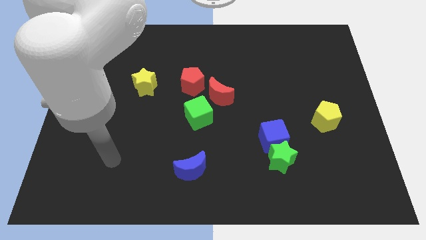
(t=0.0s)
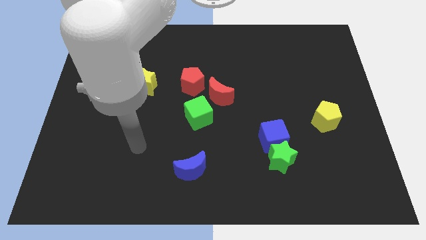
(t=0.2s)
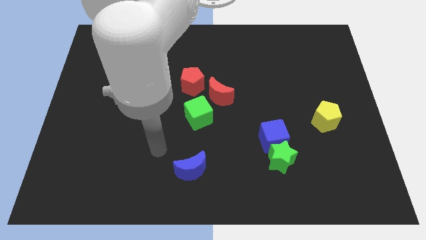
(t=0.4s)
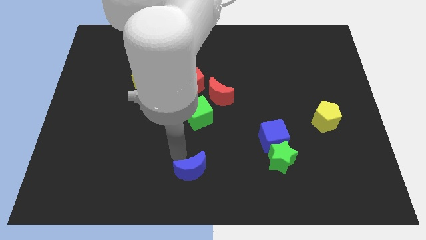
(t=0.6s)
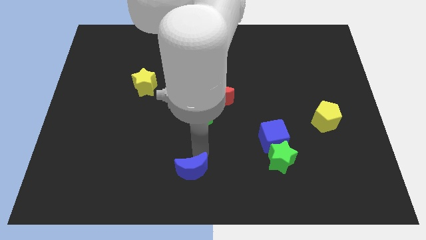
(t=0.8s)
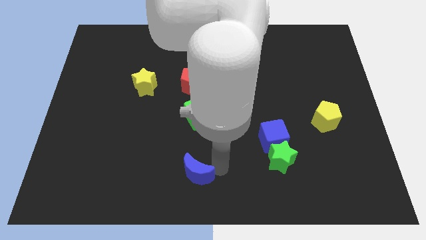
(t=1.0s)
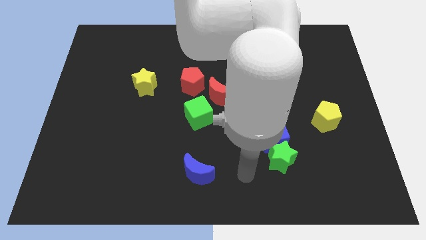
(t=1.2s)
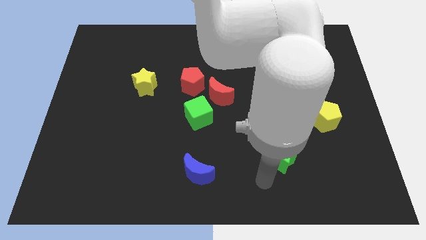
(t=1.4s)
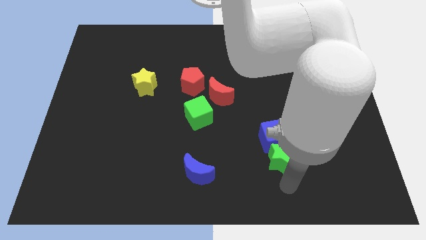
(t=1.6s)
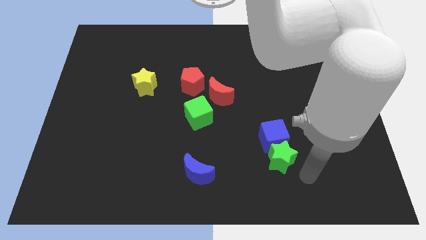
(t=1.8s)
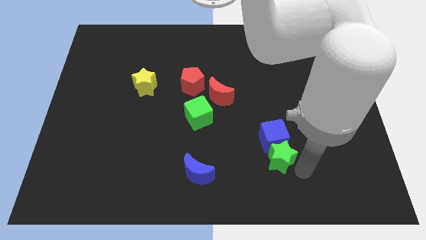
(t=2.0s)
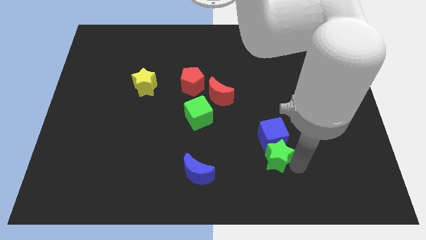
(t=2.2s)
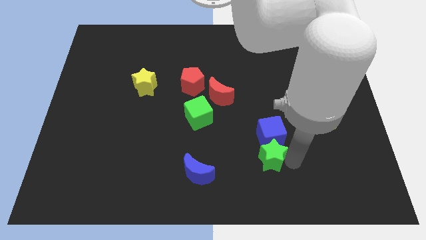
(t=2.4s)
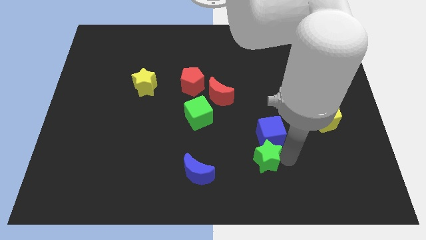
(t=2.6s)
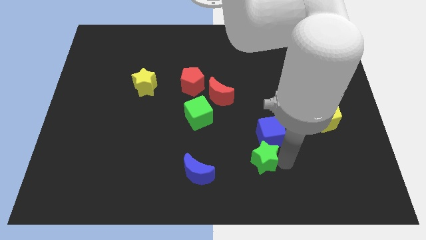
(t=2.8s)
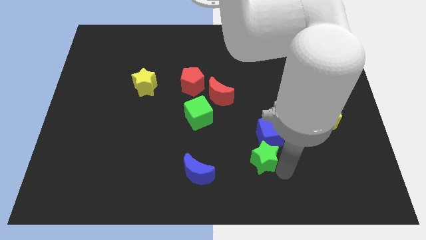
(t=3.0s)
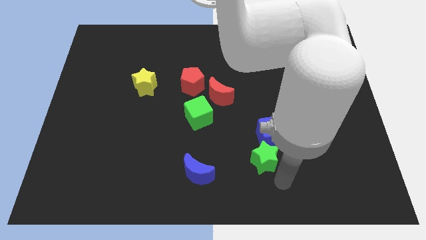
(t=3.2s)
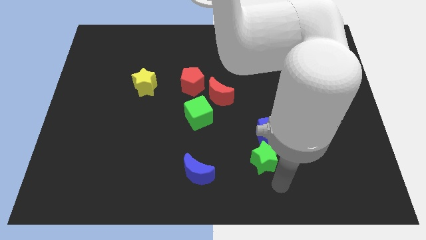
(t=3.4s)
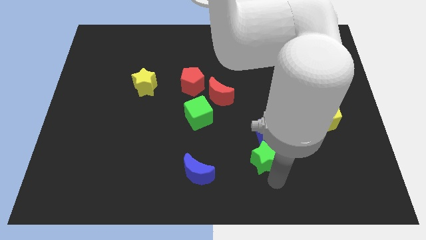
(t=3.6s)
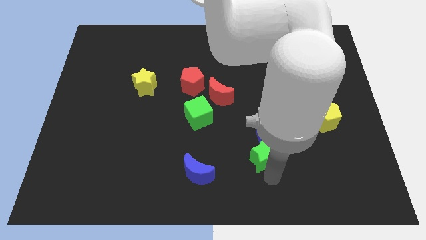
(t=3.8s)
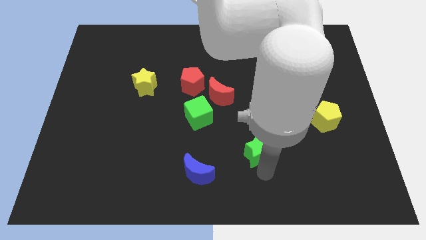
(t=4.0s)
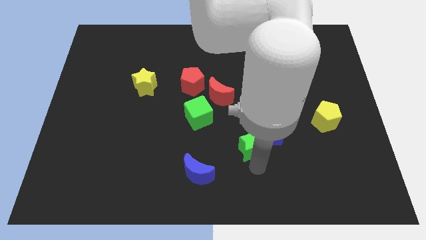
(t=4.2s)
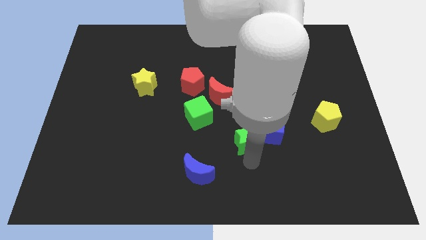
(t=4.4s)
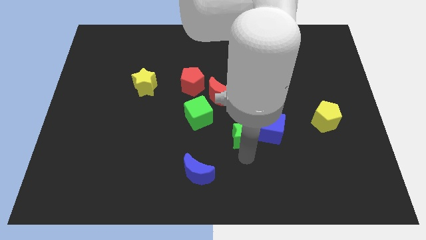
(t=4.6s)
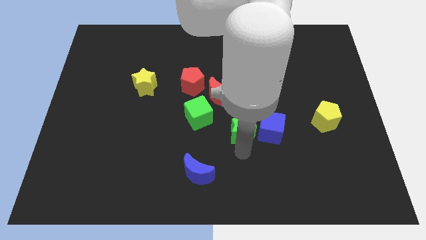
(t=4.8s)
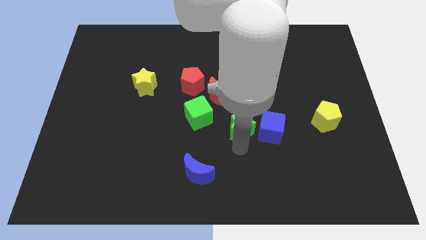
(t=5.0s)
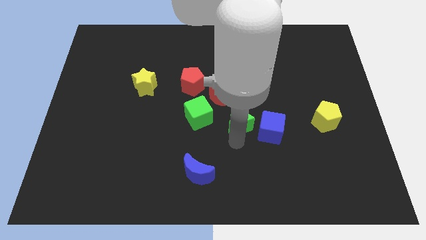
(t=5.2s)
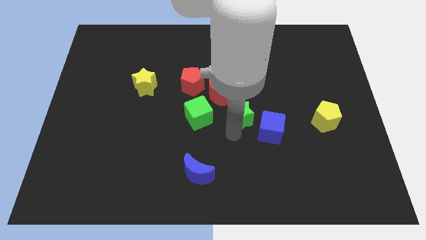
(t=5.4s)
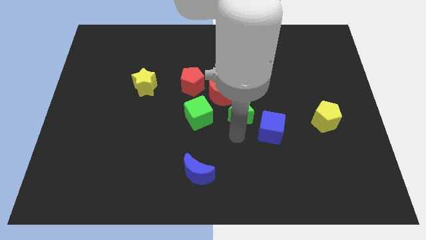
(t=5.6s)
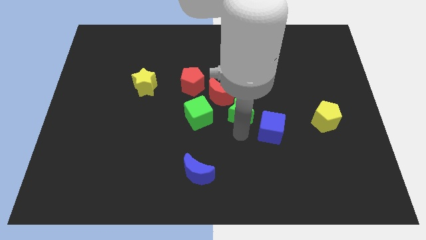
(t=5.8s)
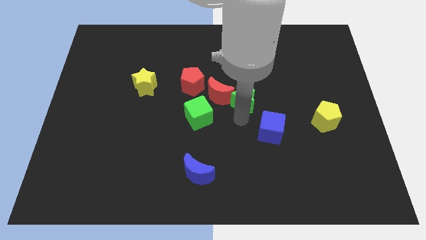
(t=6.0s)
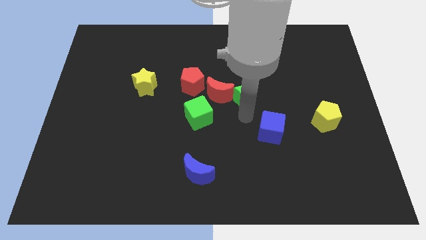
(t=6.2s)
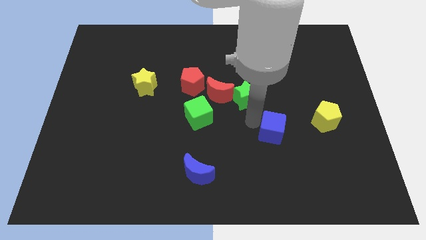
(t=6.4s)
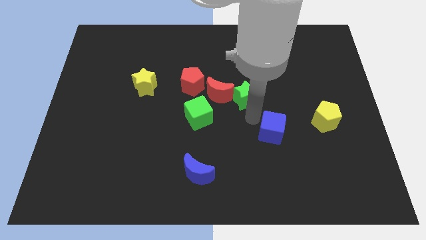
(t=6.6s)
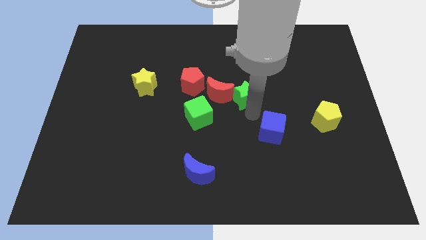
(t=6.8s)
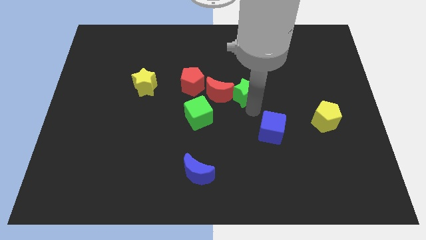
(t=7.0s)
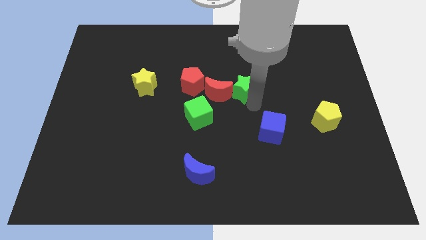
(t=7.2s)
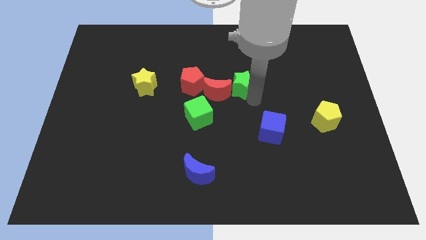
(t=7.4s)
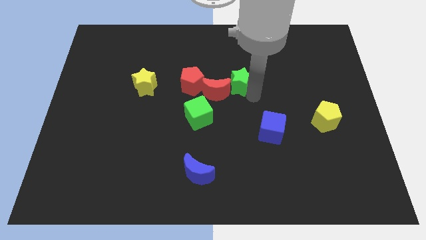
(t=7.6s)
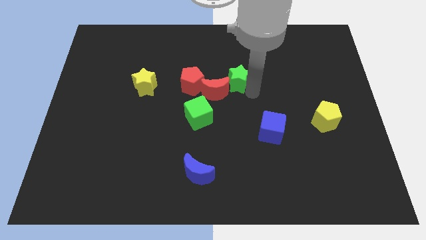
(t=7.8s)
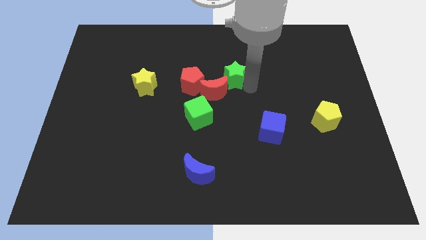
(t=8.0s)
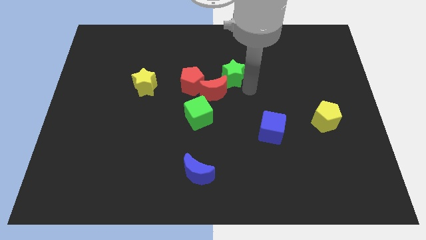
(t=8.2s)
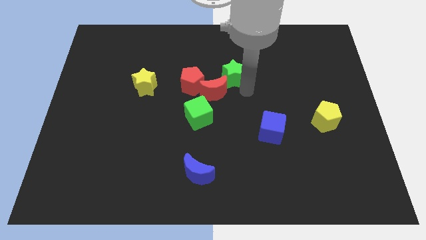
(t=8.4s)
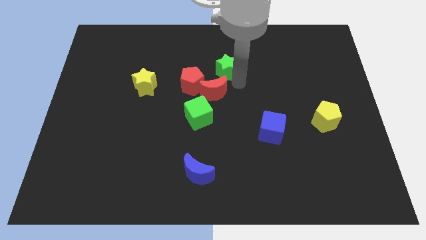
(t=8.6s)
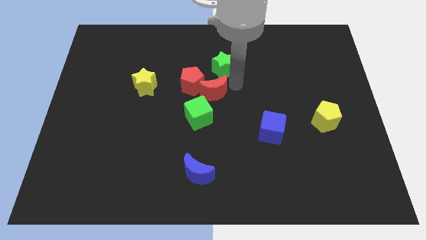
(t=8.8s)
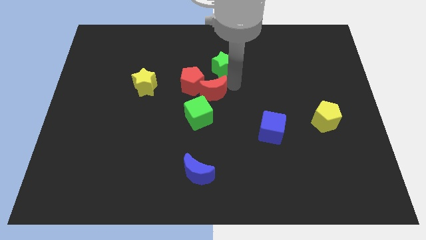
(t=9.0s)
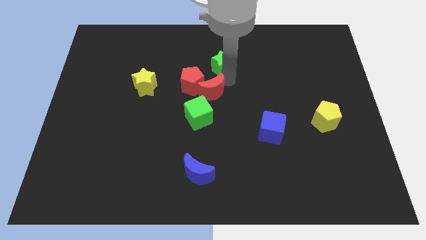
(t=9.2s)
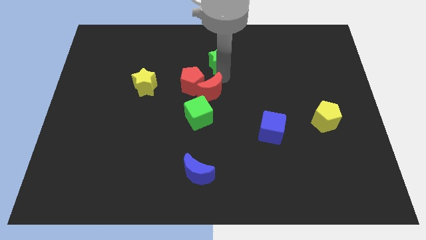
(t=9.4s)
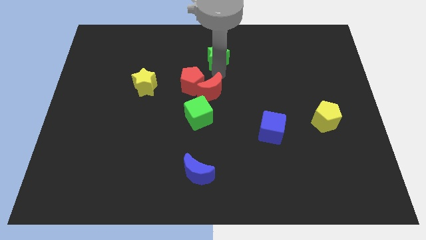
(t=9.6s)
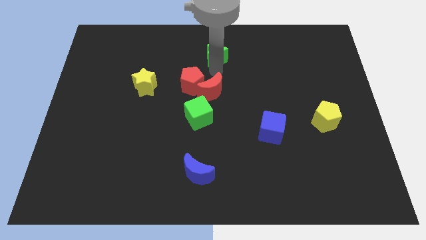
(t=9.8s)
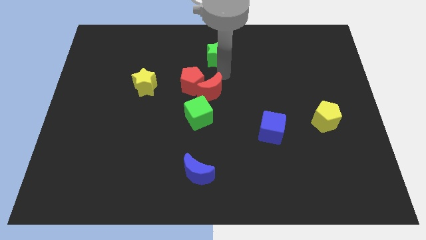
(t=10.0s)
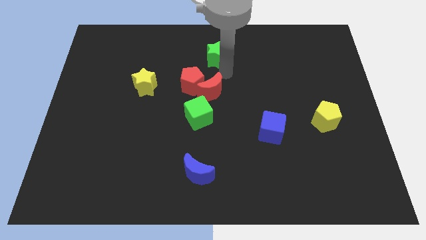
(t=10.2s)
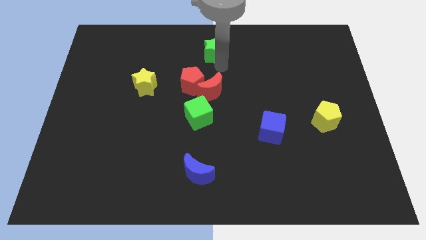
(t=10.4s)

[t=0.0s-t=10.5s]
put the green star to the top
